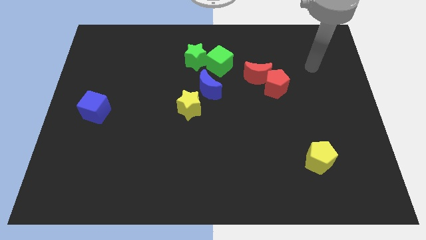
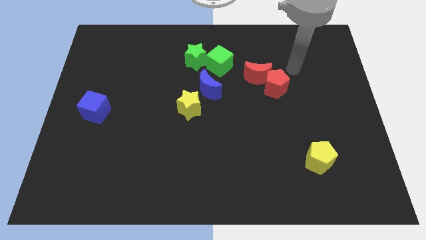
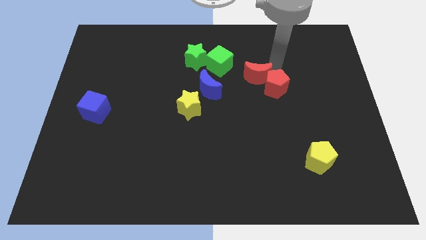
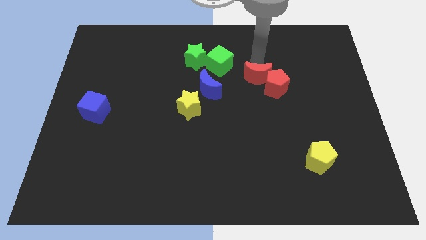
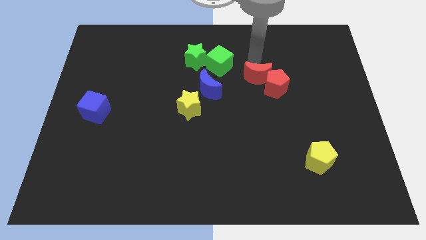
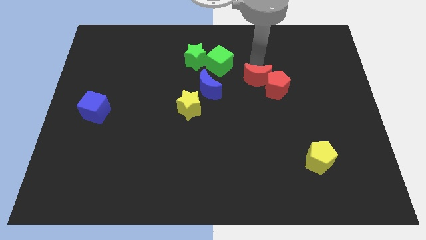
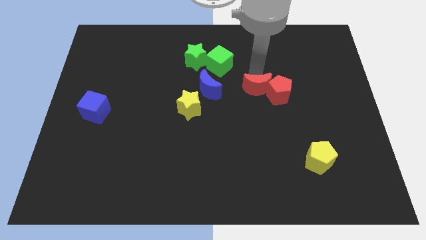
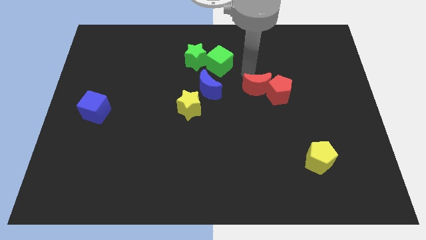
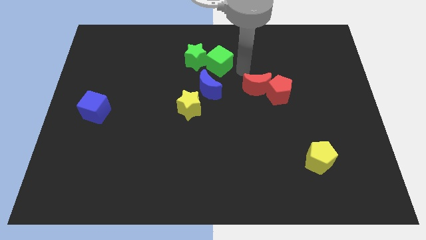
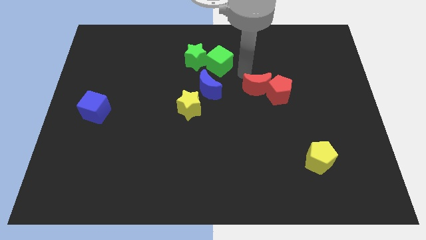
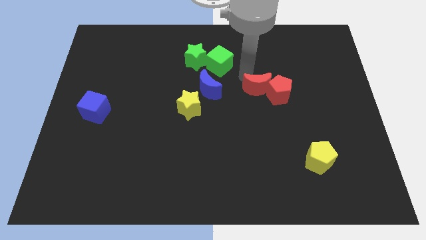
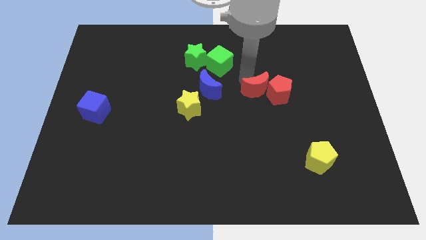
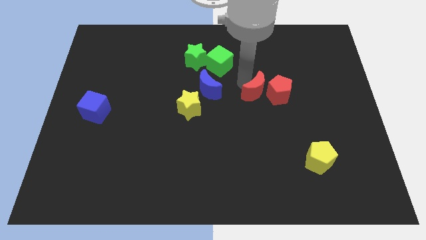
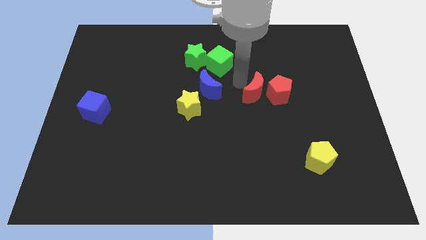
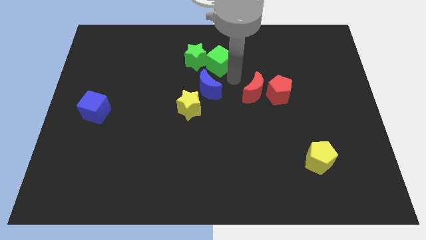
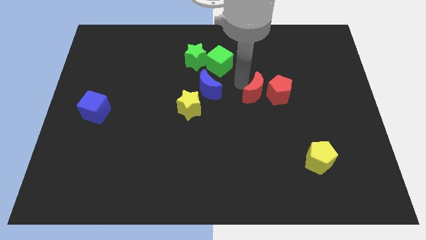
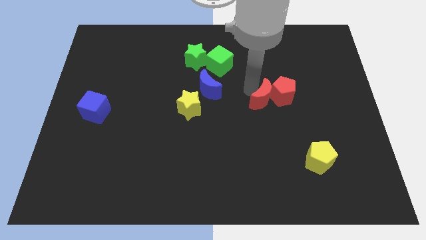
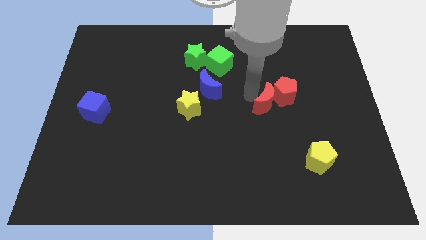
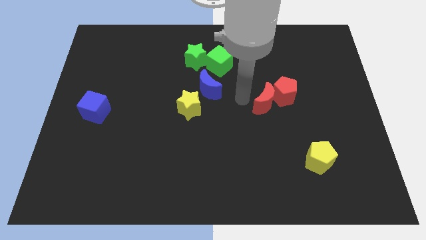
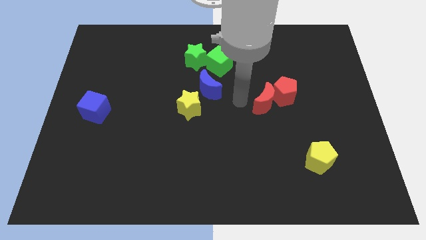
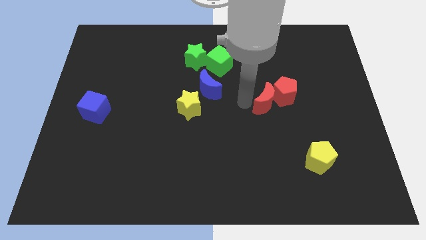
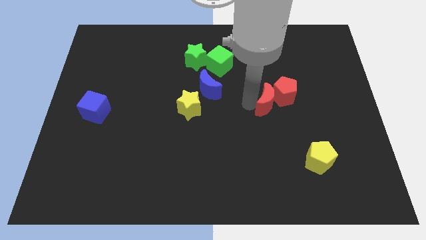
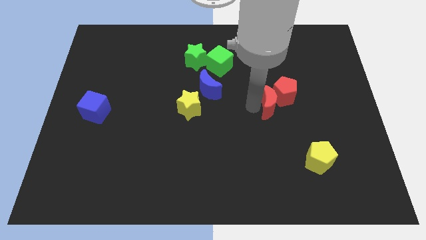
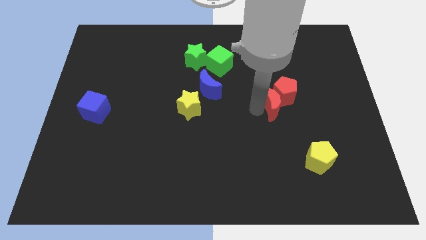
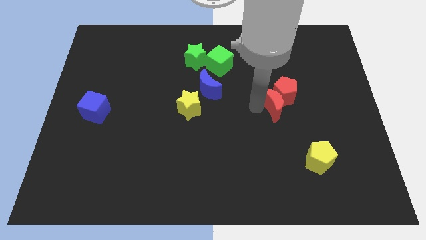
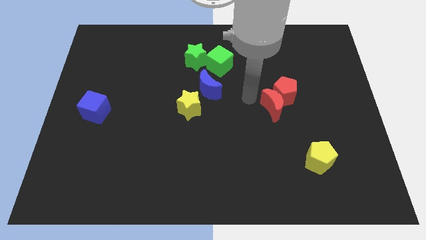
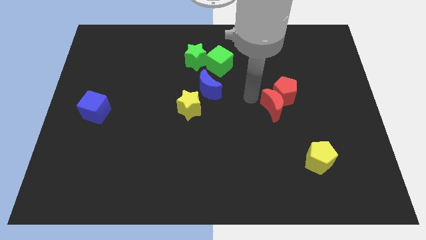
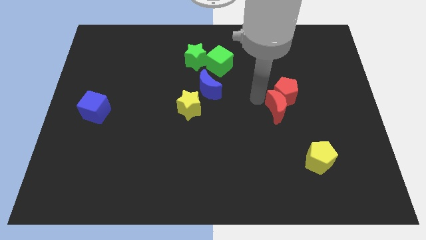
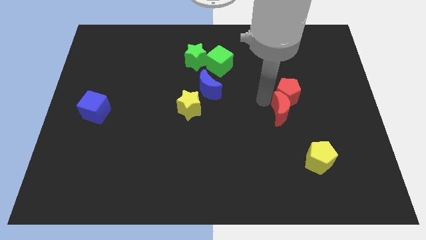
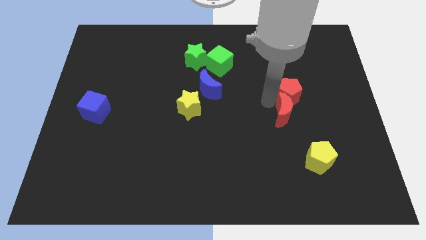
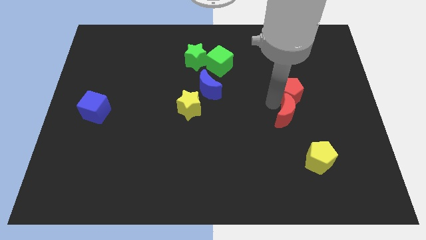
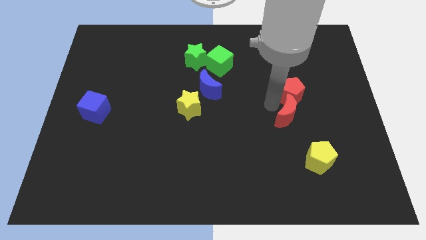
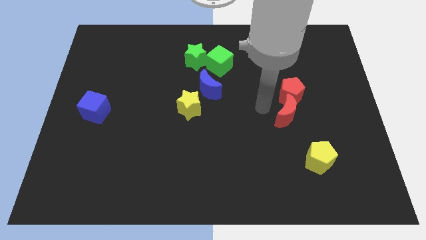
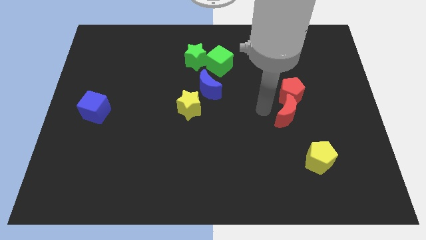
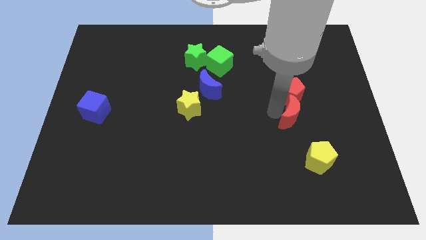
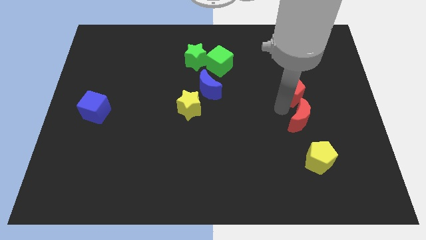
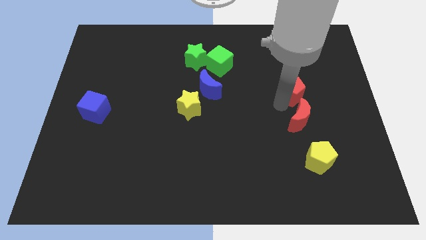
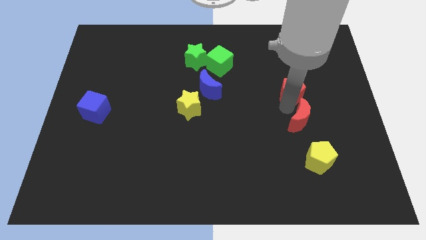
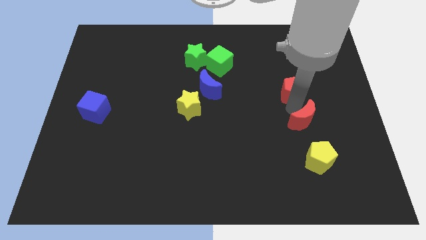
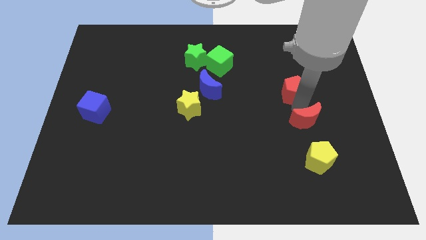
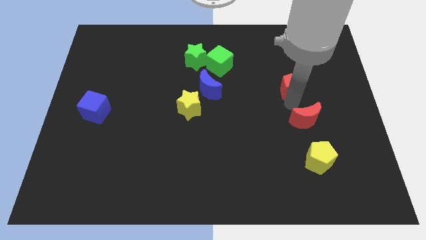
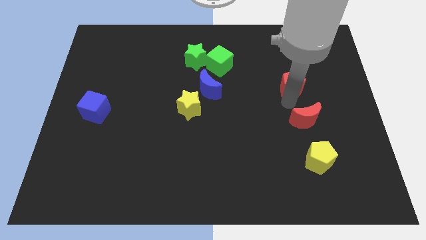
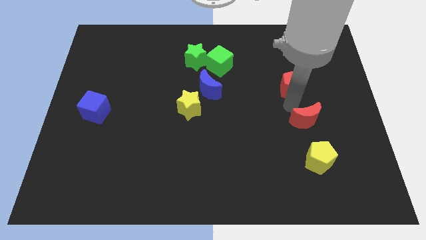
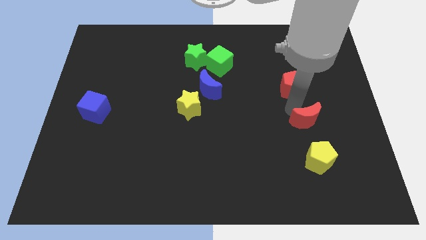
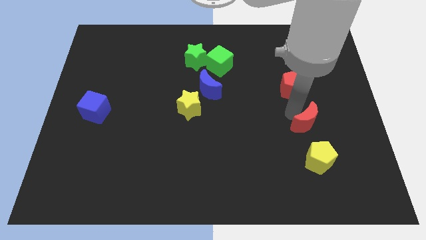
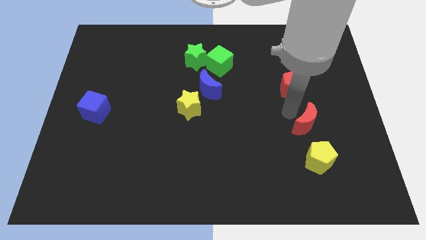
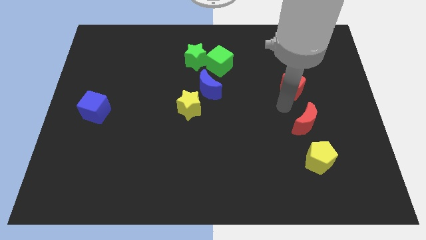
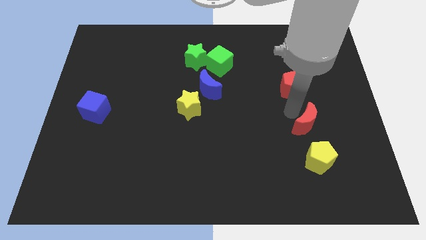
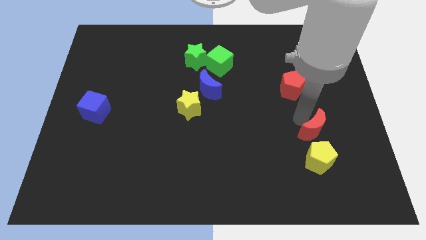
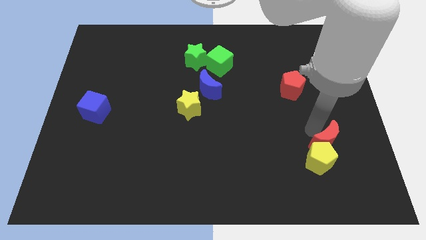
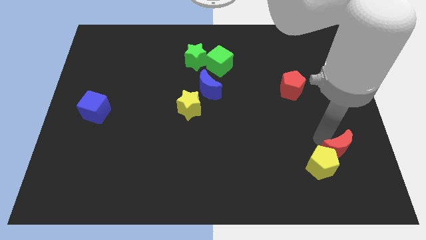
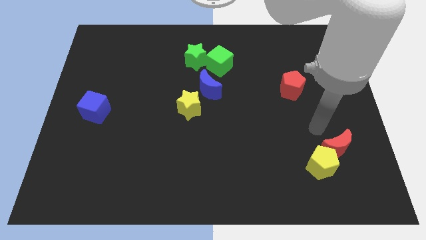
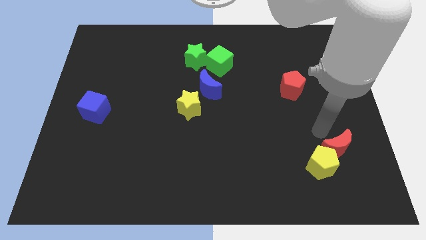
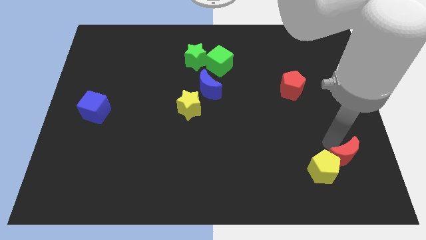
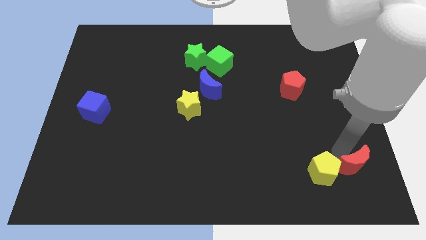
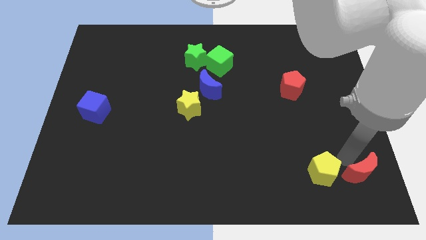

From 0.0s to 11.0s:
move the red moon to the bottom right

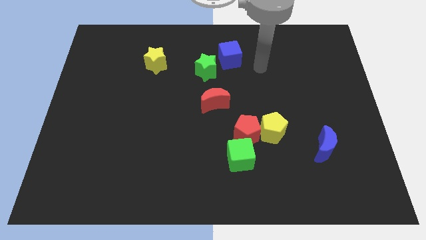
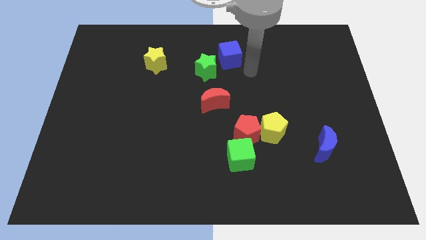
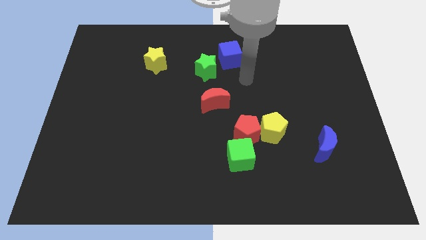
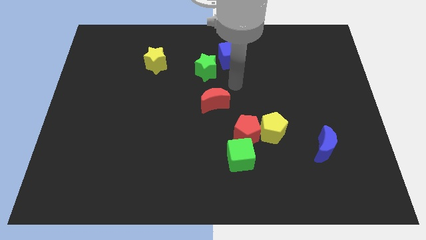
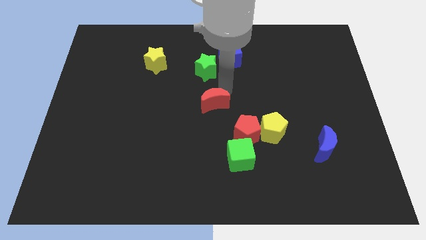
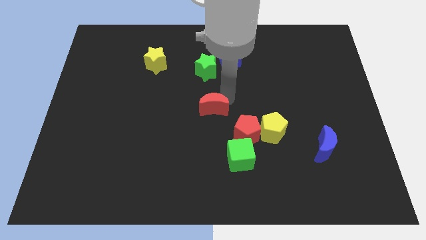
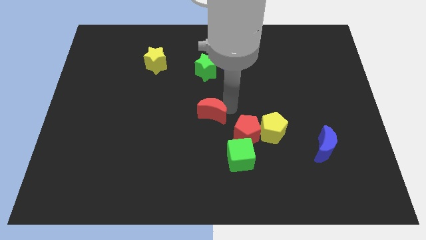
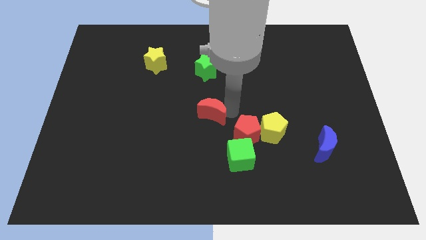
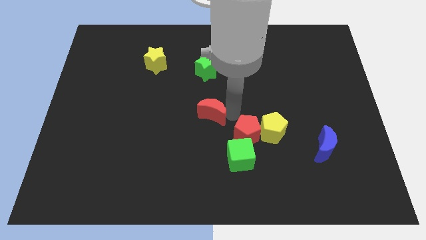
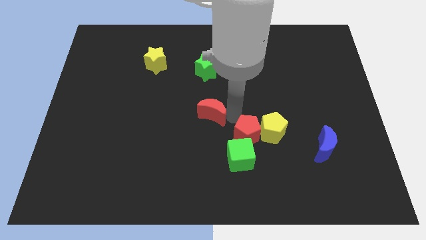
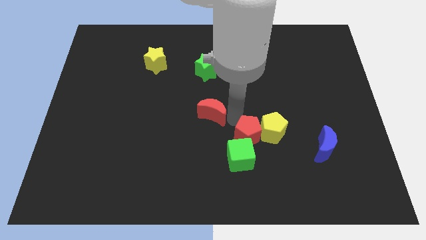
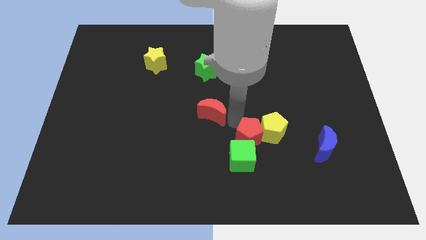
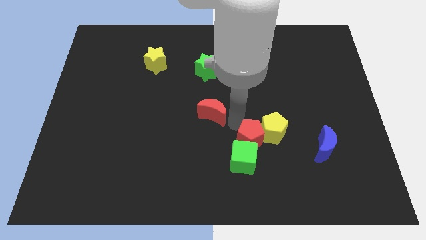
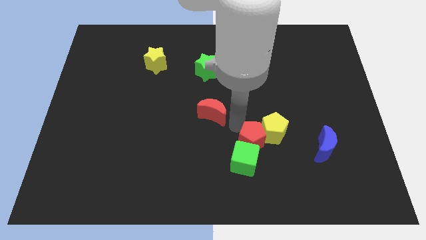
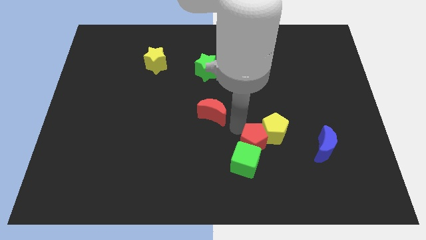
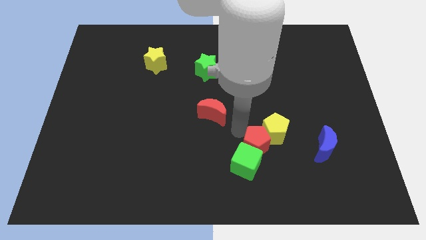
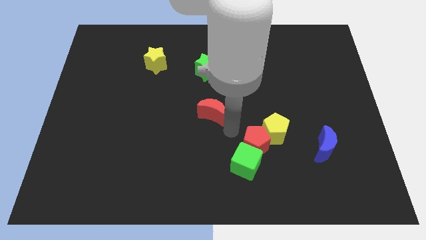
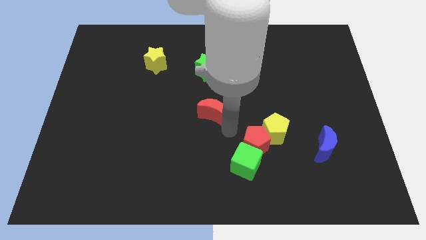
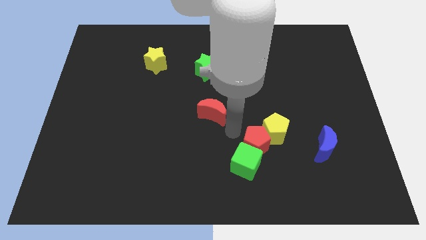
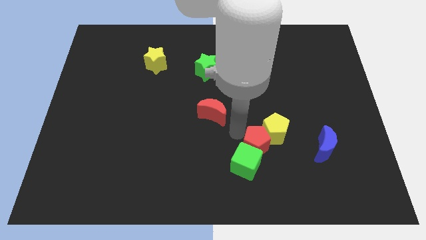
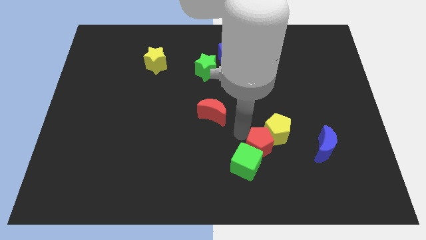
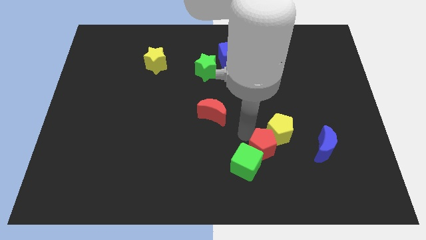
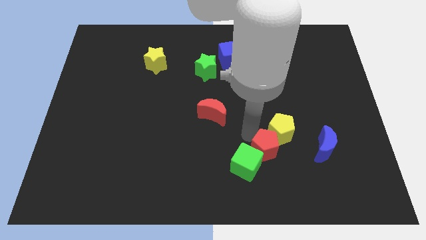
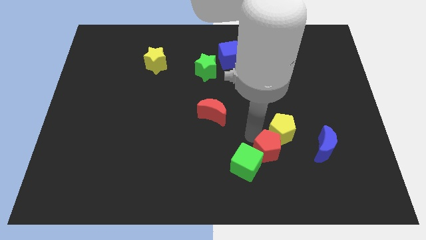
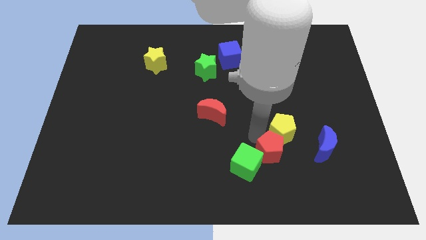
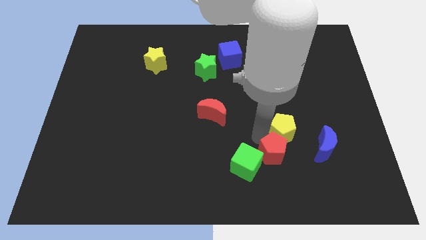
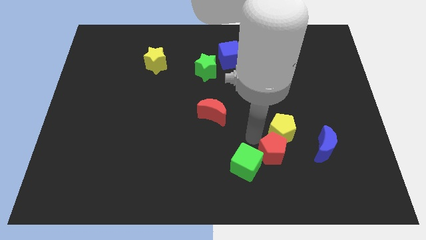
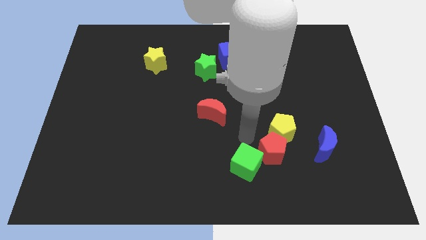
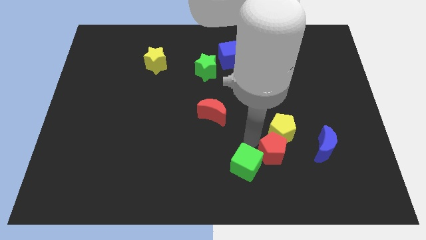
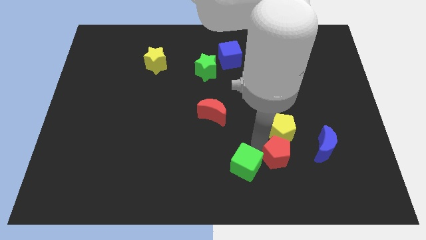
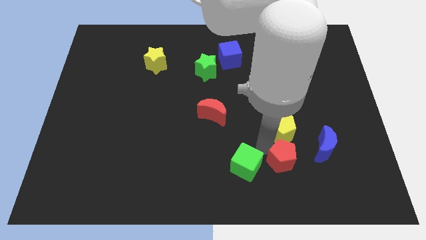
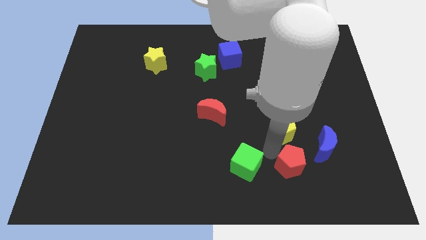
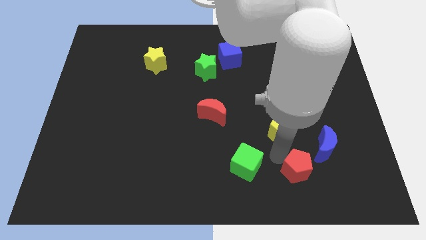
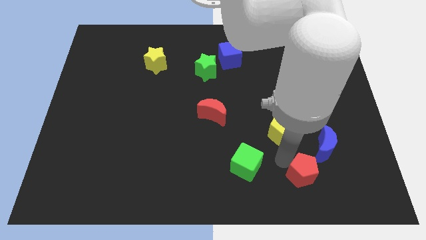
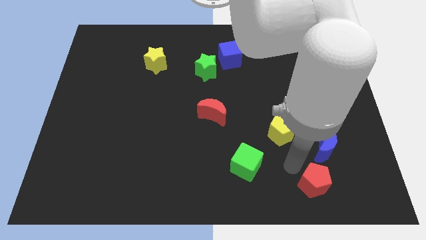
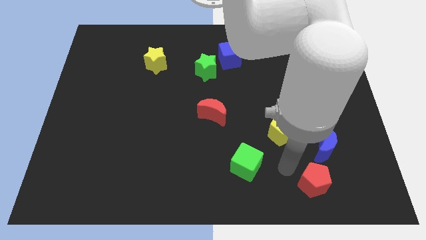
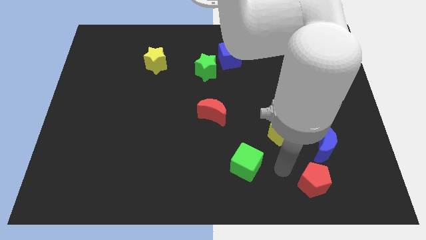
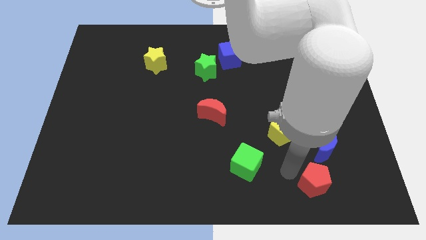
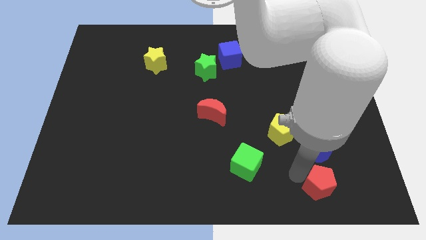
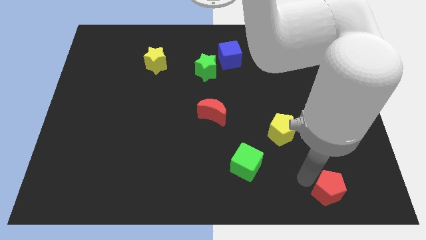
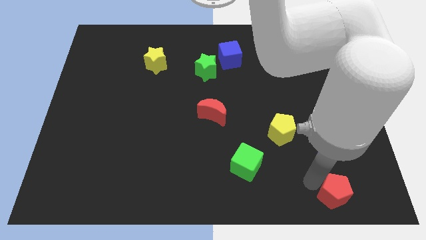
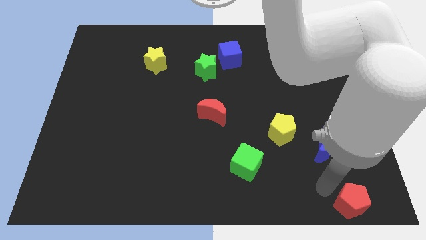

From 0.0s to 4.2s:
put the red pentagon to the bottom right
